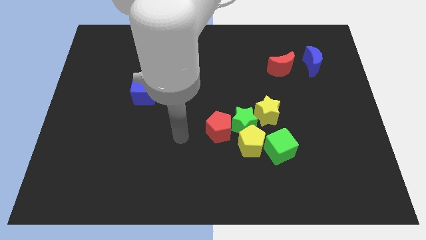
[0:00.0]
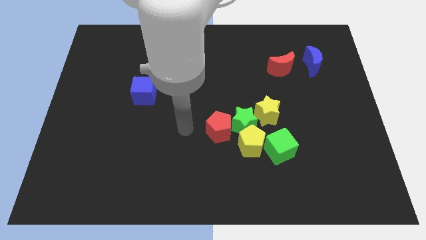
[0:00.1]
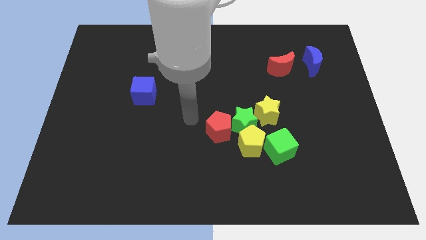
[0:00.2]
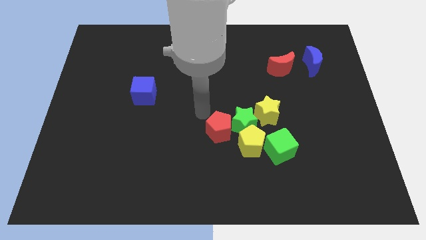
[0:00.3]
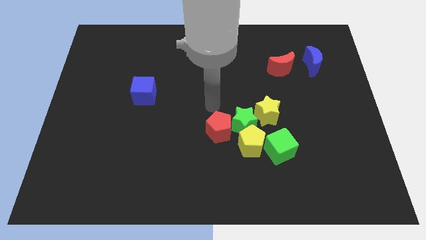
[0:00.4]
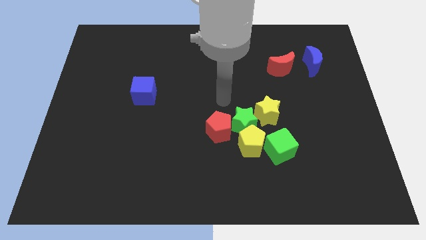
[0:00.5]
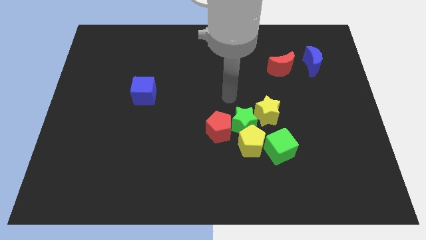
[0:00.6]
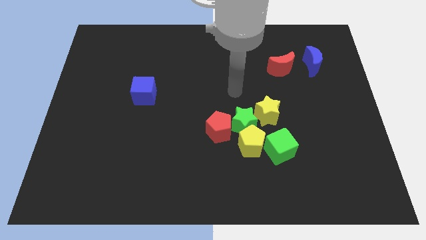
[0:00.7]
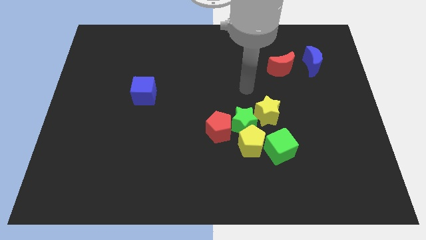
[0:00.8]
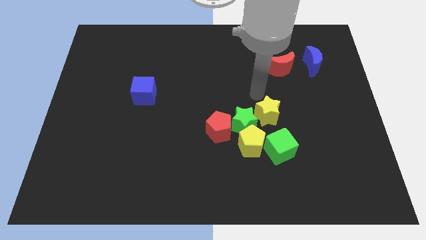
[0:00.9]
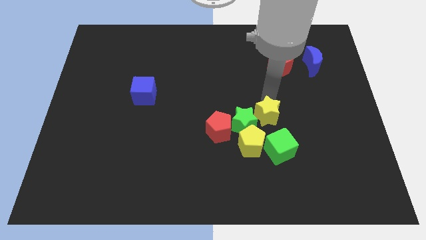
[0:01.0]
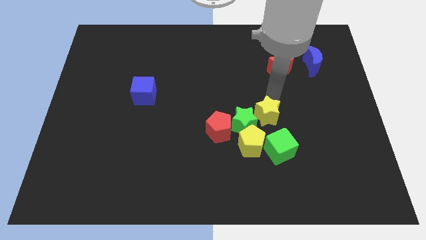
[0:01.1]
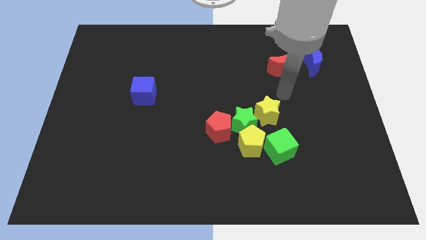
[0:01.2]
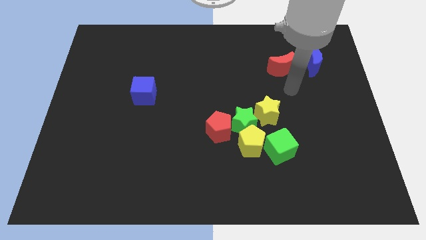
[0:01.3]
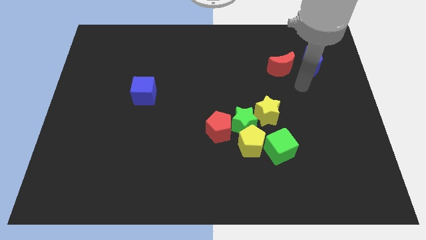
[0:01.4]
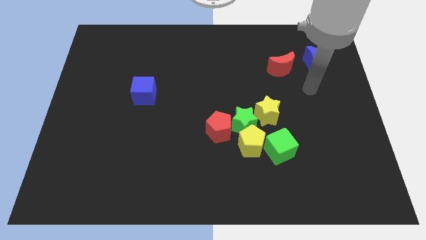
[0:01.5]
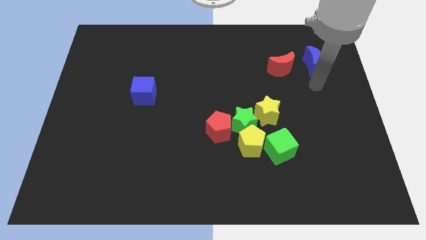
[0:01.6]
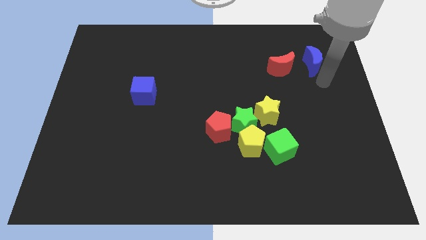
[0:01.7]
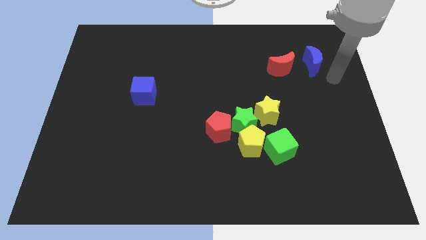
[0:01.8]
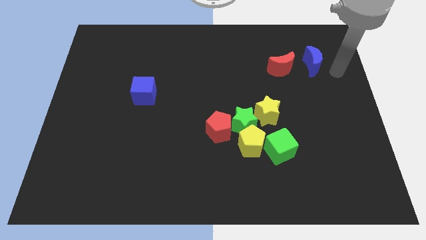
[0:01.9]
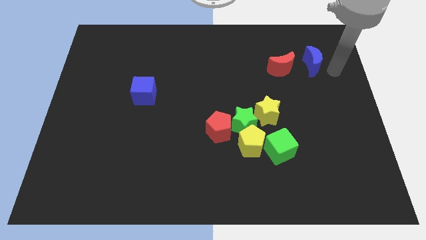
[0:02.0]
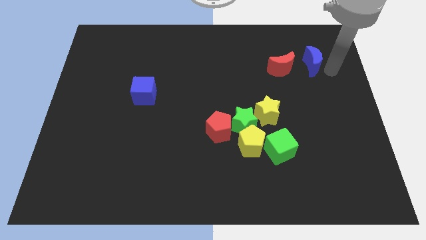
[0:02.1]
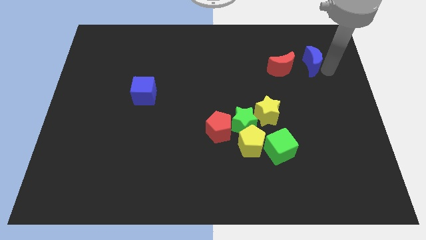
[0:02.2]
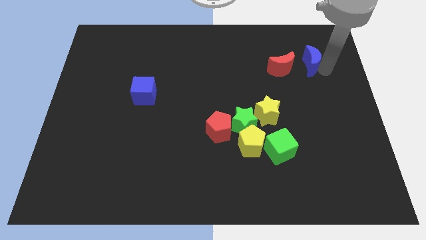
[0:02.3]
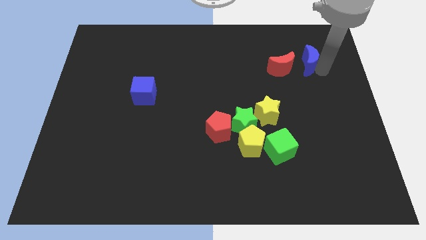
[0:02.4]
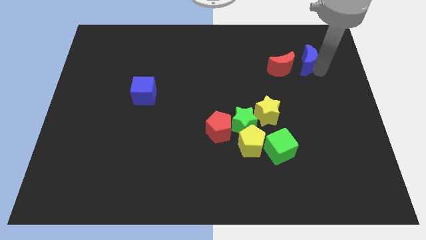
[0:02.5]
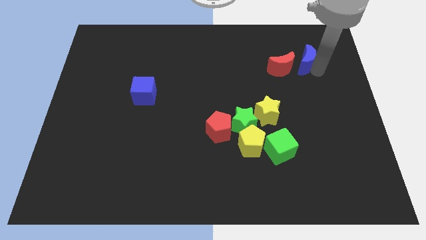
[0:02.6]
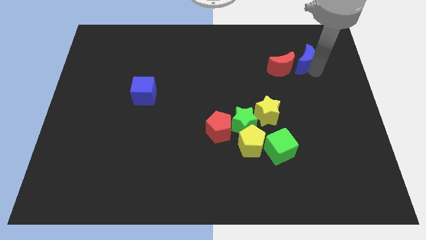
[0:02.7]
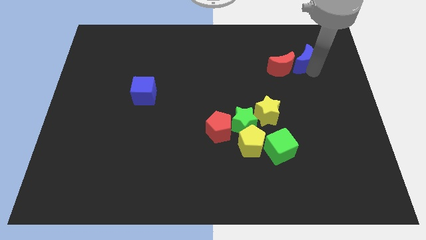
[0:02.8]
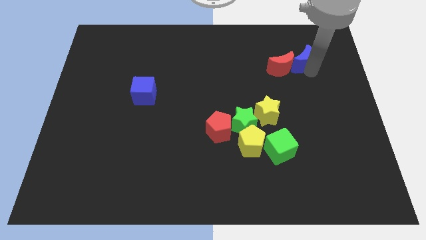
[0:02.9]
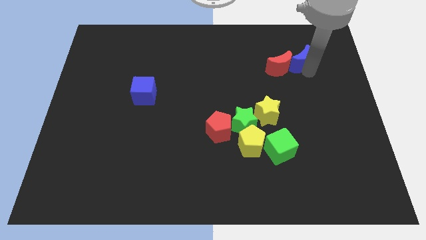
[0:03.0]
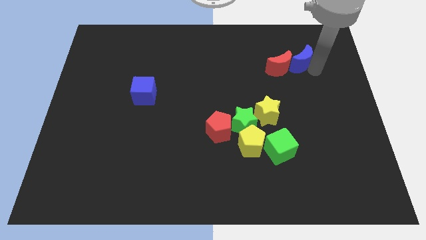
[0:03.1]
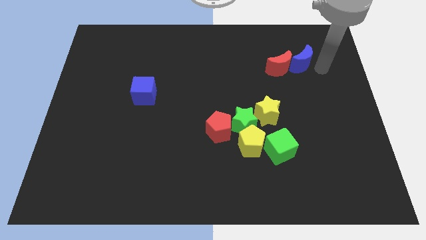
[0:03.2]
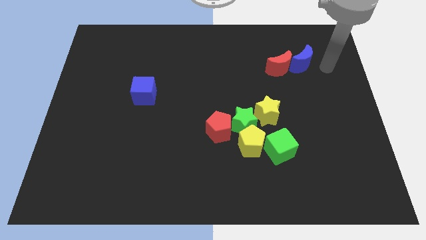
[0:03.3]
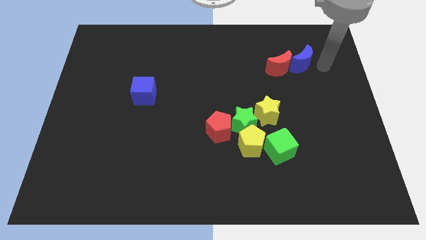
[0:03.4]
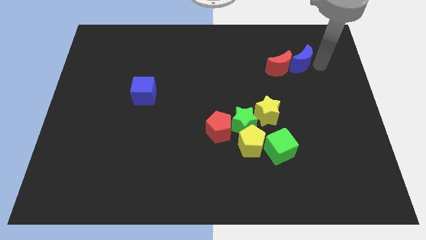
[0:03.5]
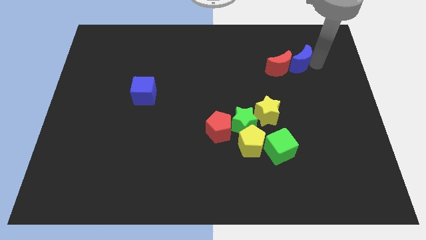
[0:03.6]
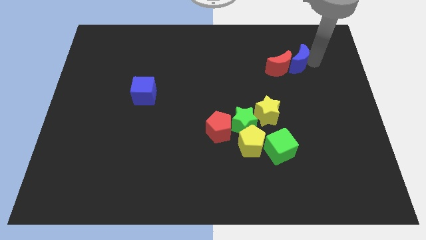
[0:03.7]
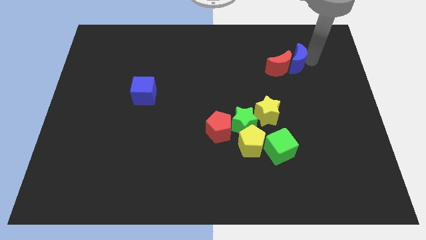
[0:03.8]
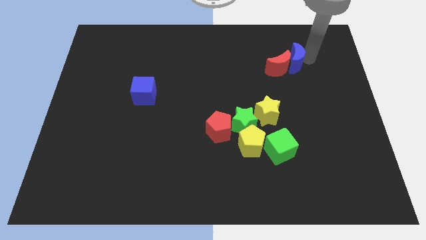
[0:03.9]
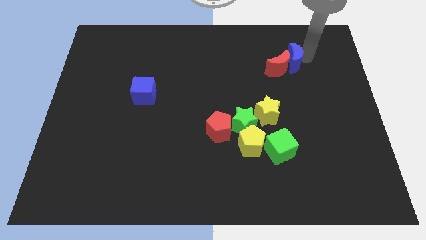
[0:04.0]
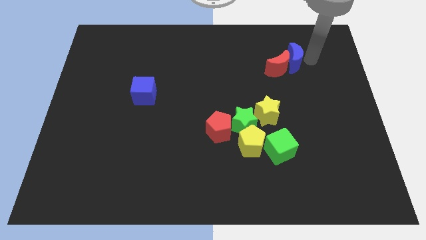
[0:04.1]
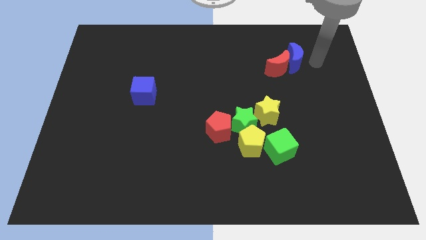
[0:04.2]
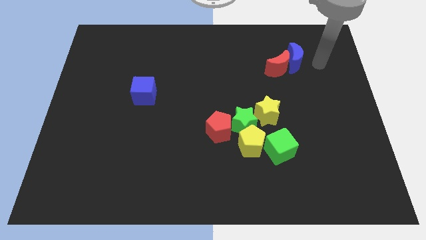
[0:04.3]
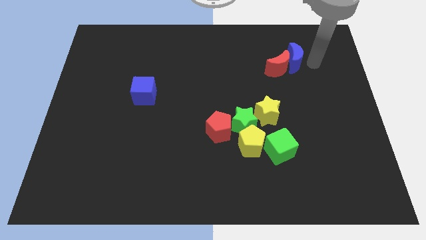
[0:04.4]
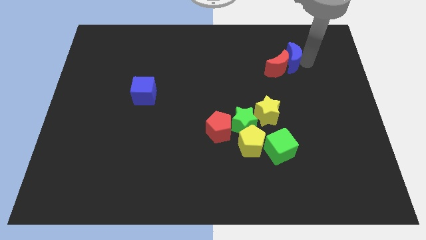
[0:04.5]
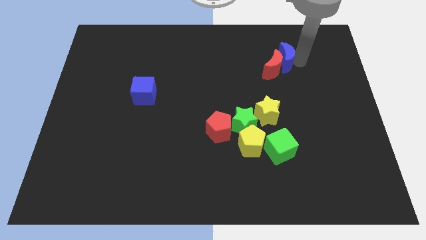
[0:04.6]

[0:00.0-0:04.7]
slide the blue moon left a bit

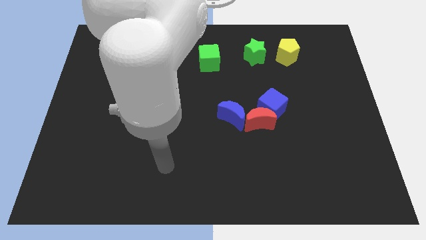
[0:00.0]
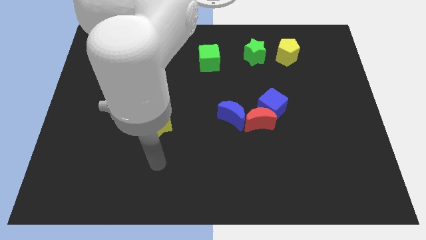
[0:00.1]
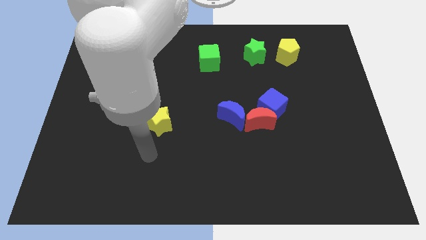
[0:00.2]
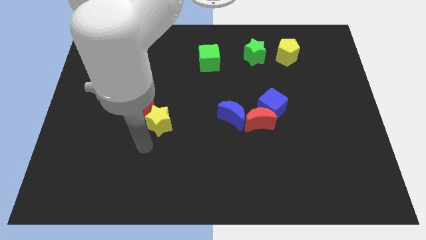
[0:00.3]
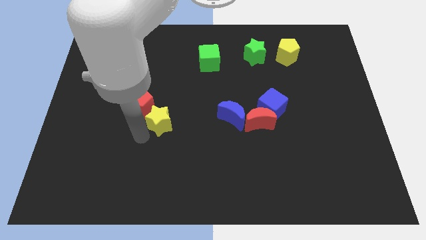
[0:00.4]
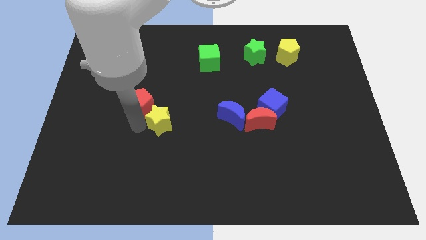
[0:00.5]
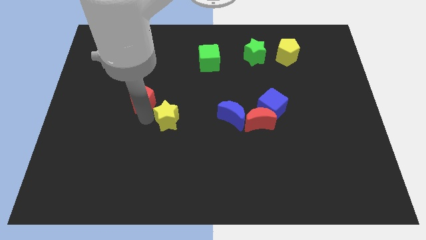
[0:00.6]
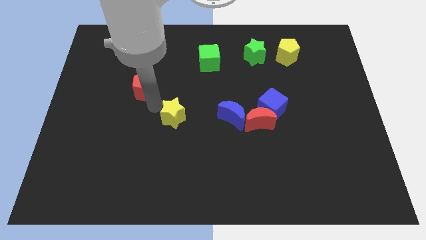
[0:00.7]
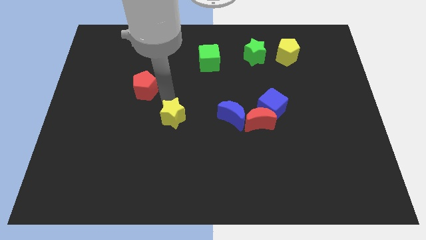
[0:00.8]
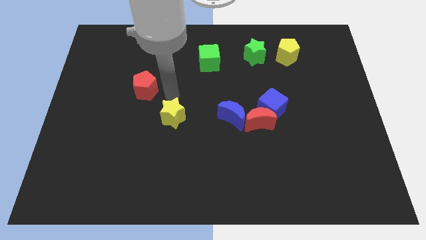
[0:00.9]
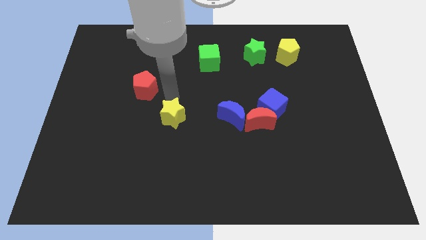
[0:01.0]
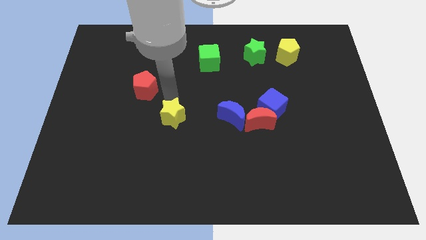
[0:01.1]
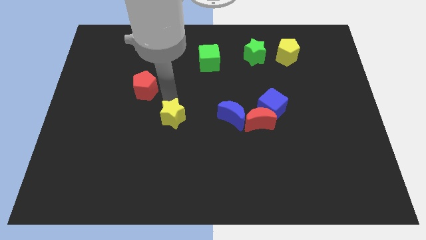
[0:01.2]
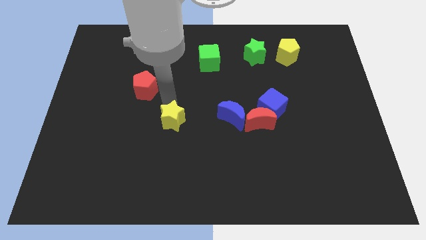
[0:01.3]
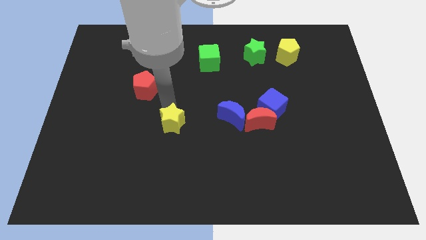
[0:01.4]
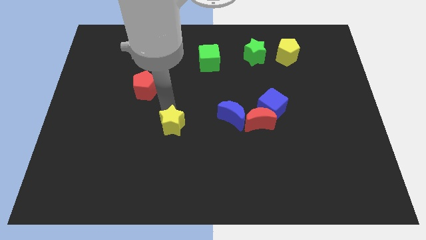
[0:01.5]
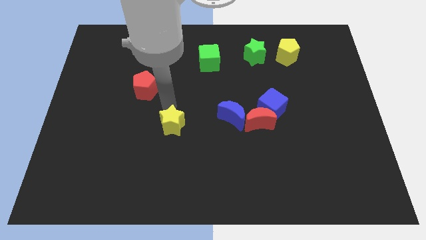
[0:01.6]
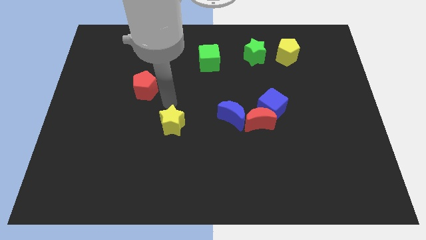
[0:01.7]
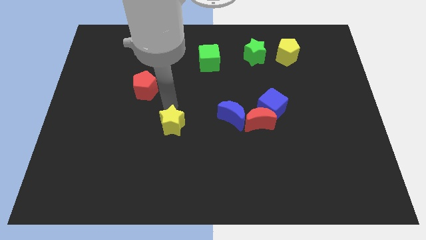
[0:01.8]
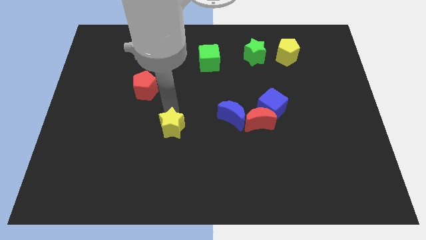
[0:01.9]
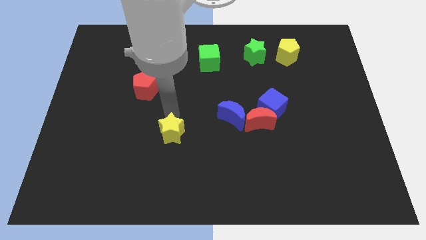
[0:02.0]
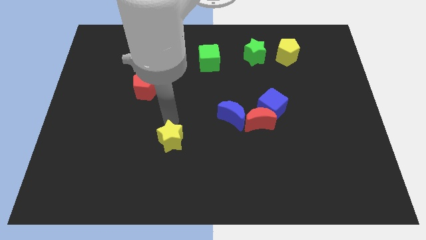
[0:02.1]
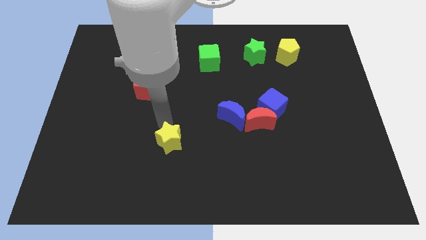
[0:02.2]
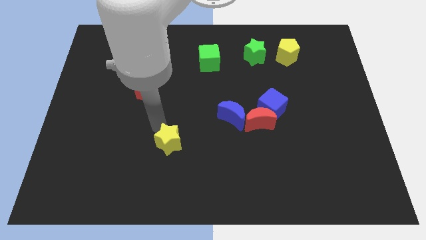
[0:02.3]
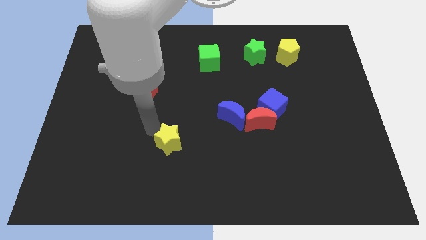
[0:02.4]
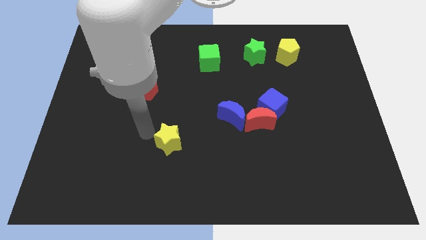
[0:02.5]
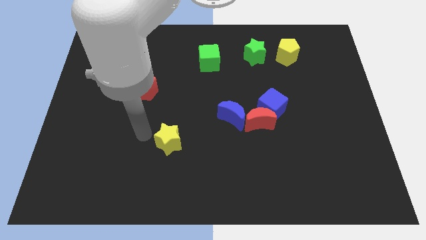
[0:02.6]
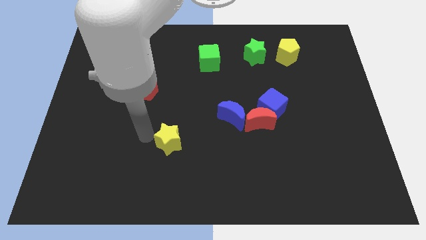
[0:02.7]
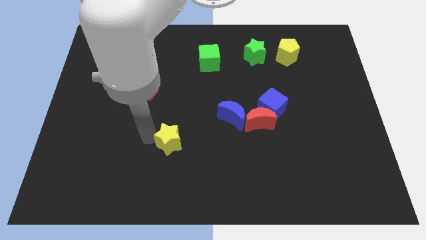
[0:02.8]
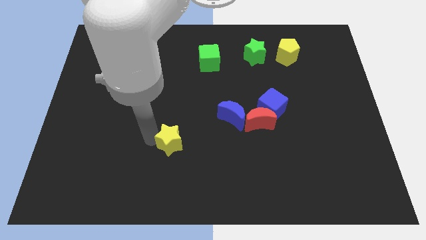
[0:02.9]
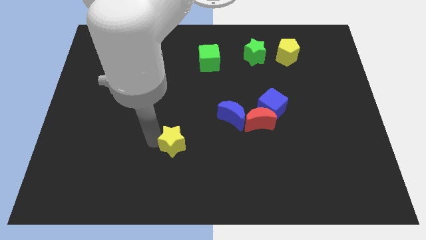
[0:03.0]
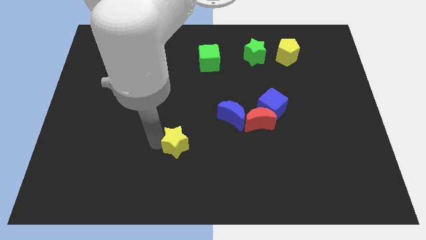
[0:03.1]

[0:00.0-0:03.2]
move the yellow star slightly down and right

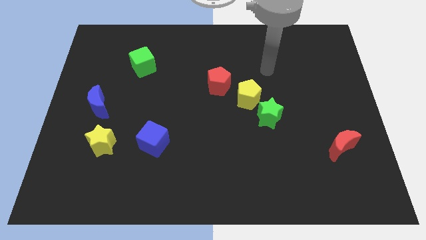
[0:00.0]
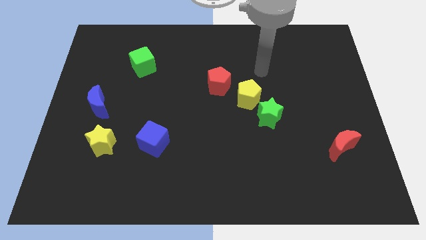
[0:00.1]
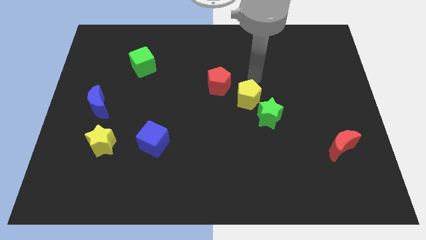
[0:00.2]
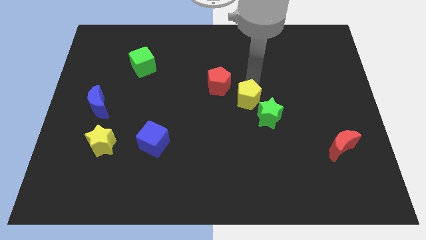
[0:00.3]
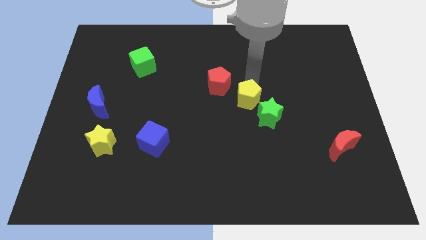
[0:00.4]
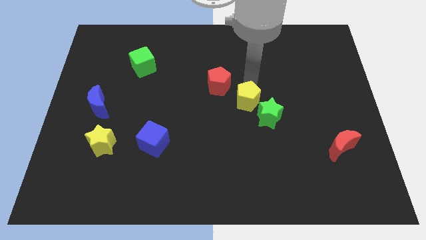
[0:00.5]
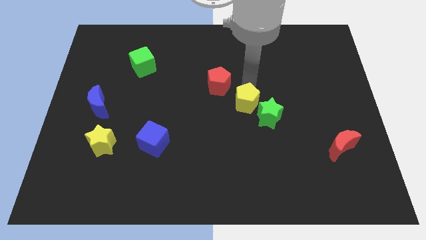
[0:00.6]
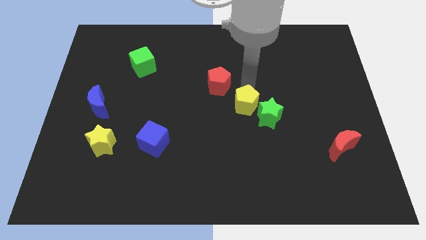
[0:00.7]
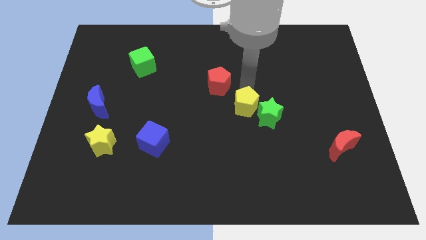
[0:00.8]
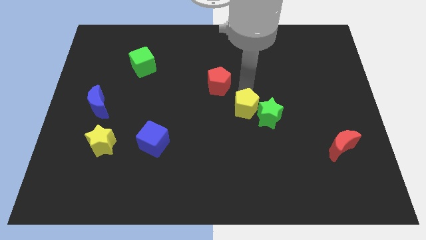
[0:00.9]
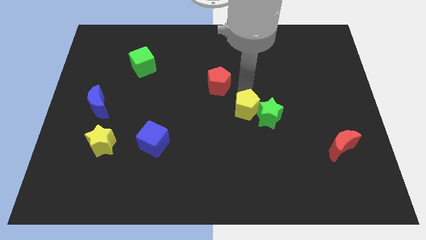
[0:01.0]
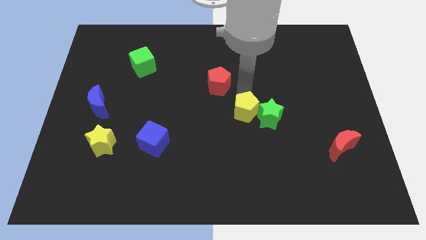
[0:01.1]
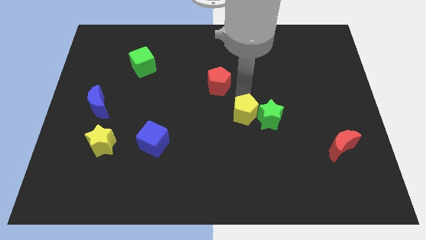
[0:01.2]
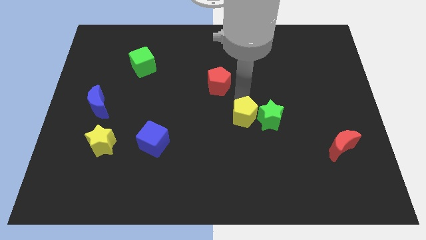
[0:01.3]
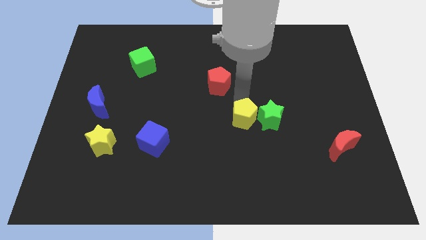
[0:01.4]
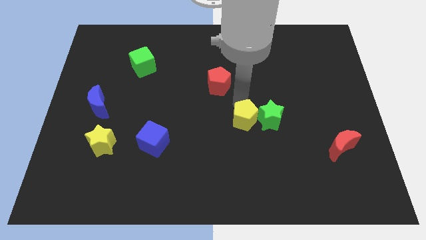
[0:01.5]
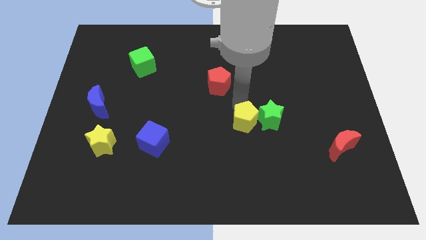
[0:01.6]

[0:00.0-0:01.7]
slightly slide the yellow pentagon down
